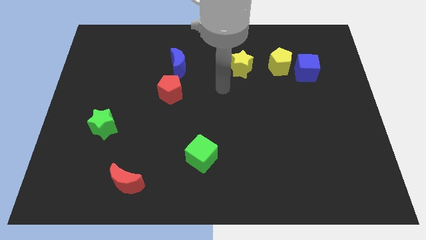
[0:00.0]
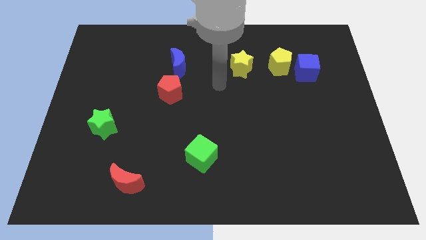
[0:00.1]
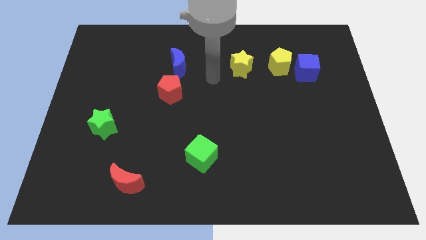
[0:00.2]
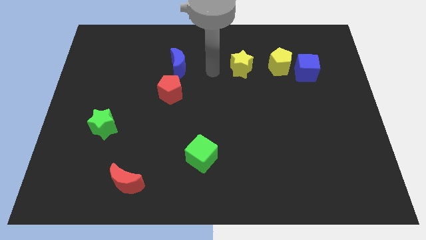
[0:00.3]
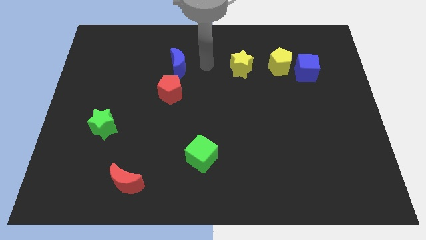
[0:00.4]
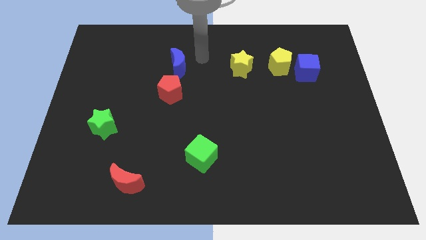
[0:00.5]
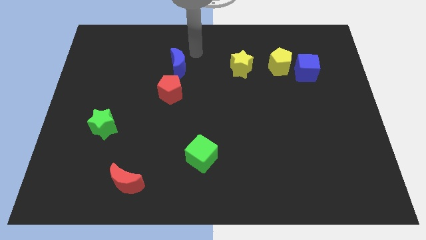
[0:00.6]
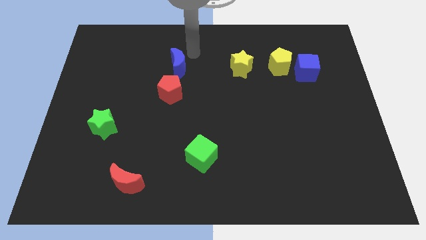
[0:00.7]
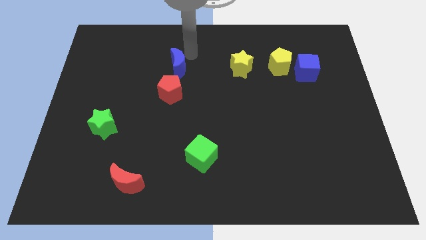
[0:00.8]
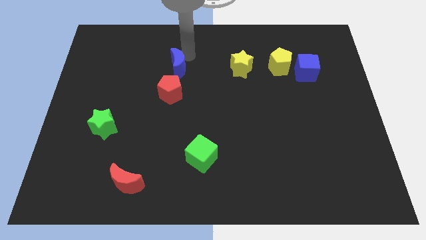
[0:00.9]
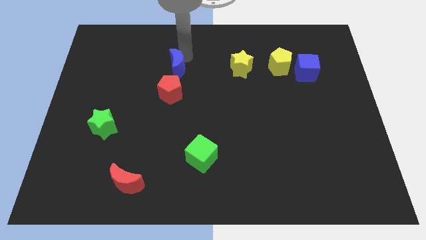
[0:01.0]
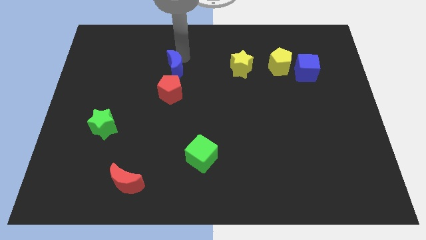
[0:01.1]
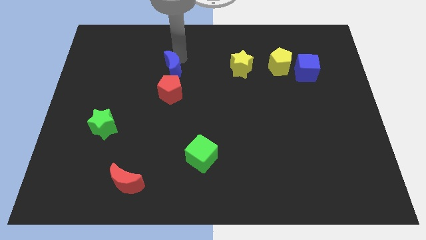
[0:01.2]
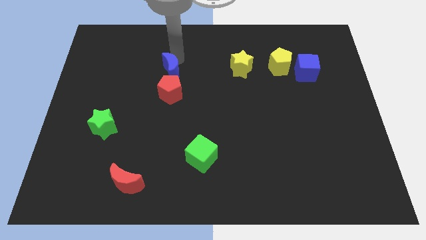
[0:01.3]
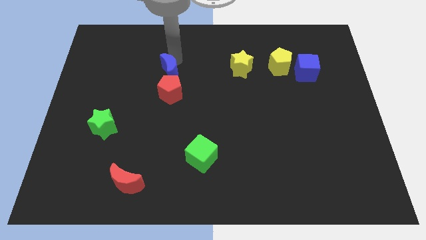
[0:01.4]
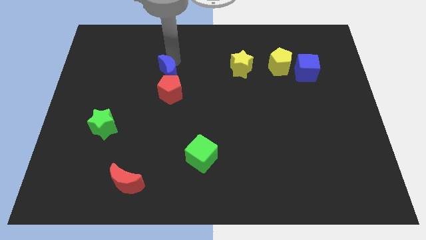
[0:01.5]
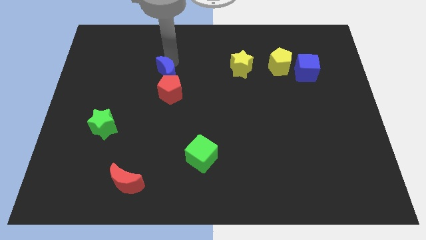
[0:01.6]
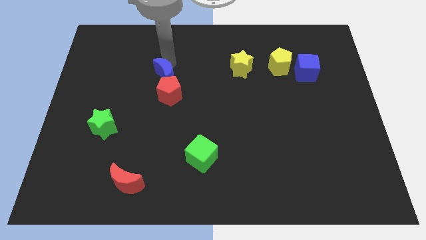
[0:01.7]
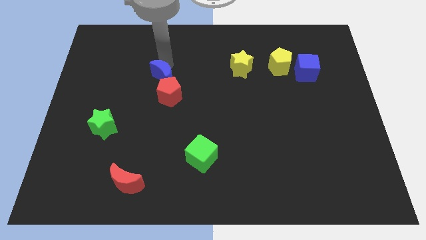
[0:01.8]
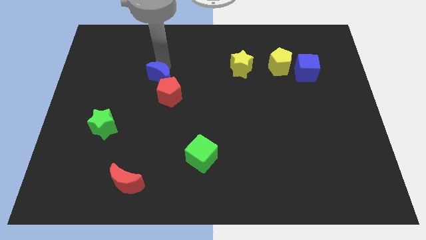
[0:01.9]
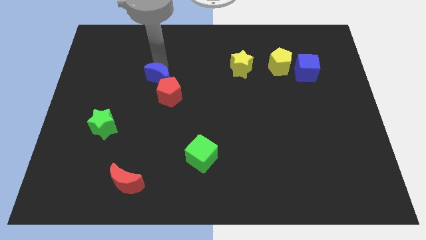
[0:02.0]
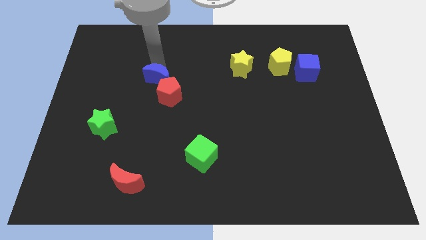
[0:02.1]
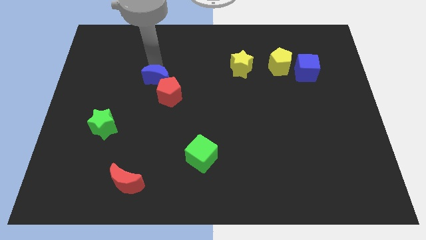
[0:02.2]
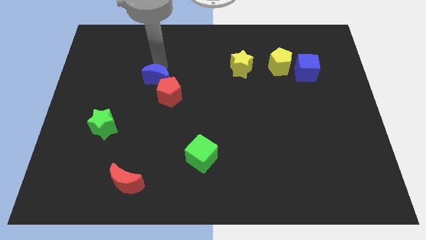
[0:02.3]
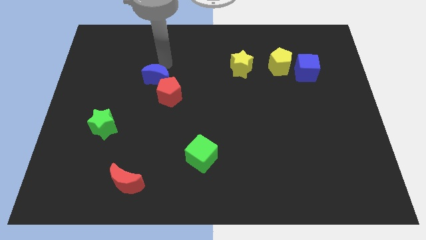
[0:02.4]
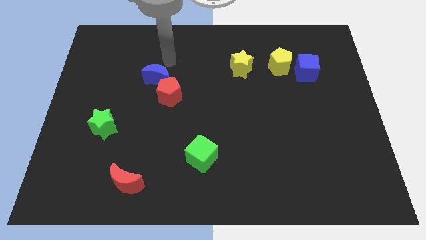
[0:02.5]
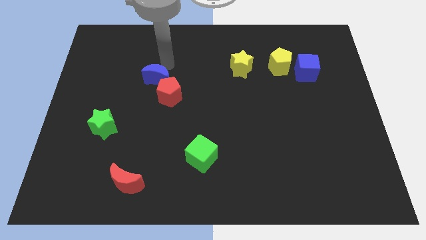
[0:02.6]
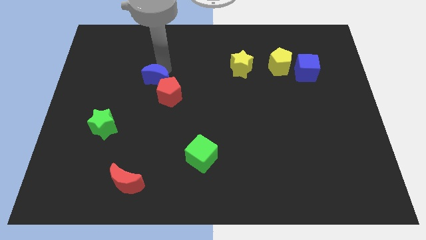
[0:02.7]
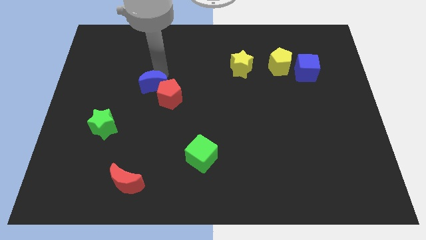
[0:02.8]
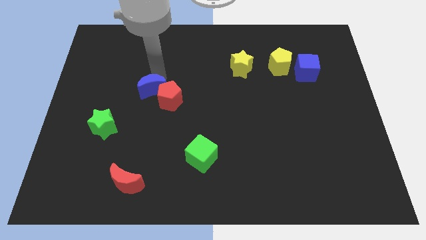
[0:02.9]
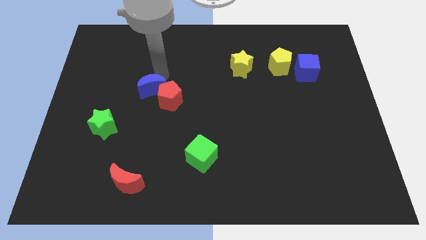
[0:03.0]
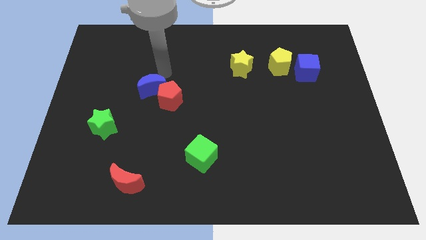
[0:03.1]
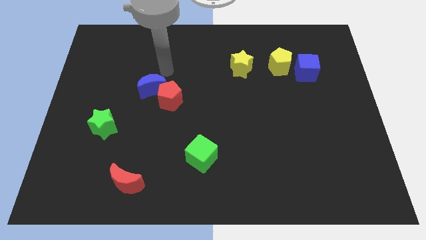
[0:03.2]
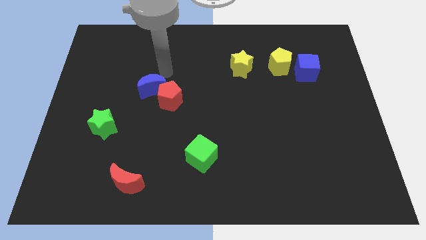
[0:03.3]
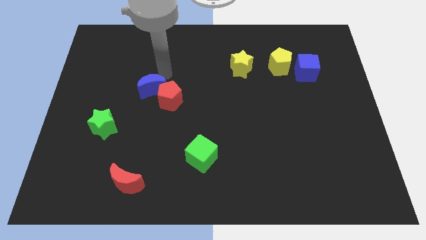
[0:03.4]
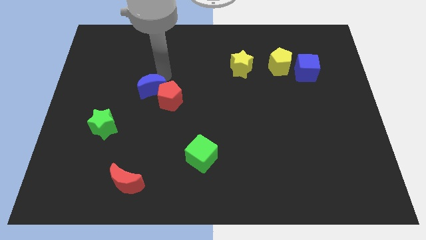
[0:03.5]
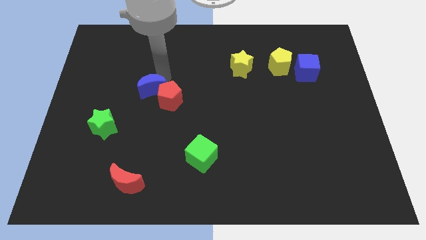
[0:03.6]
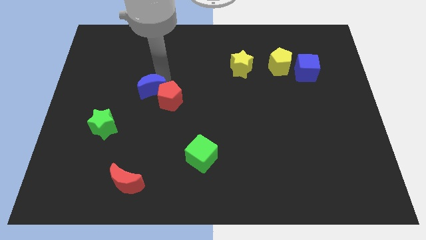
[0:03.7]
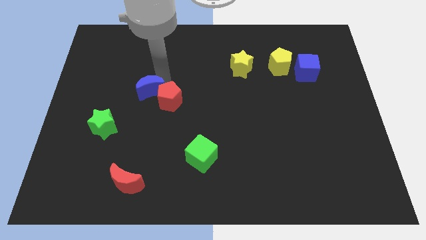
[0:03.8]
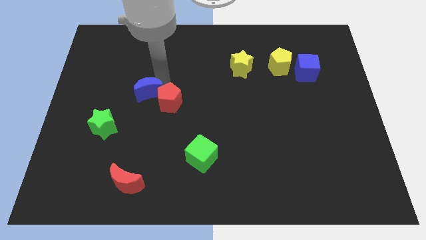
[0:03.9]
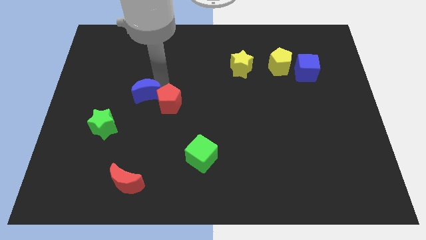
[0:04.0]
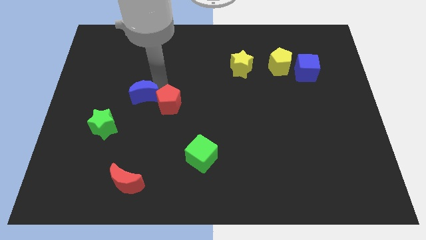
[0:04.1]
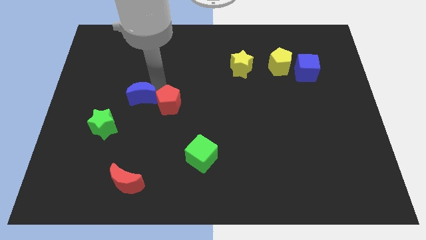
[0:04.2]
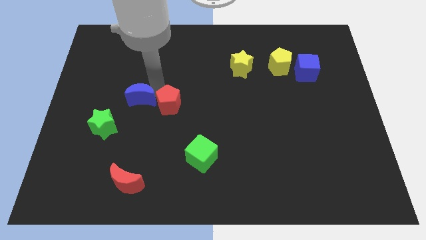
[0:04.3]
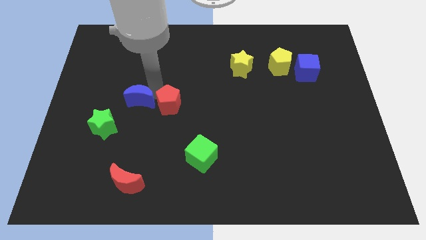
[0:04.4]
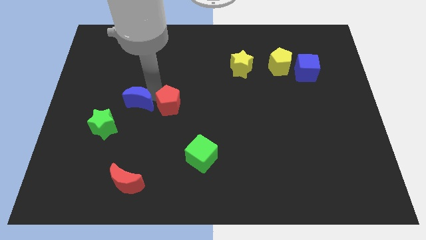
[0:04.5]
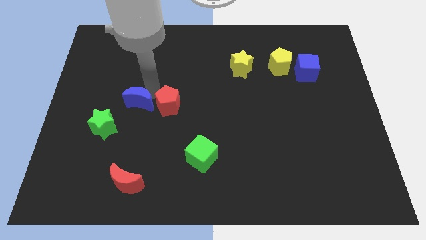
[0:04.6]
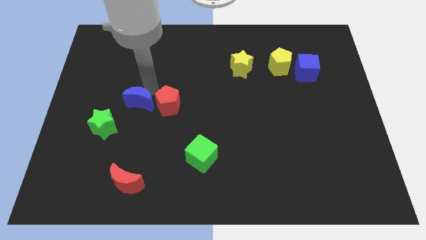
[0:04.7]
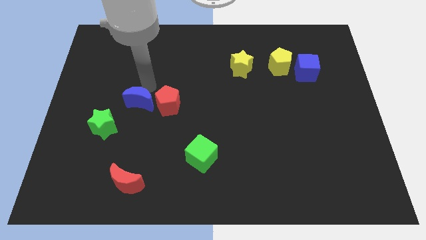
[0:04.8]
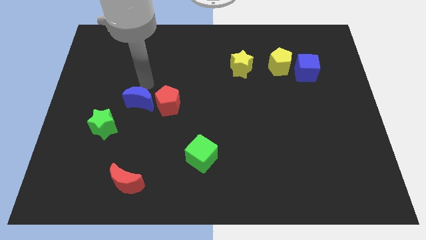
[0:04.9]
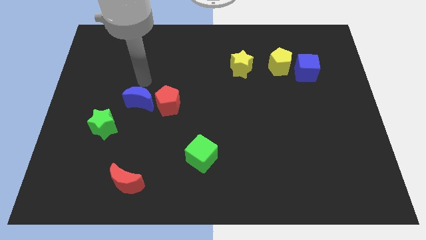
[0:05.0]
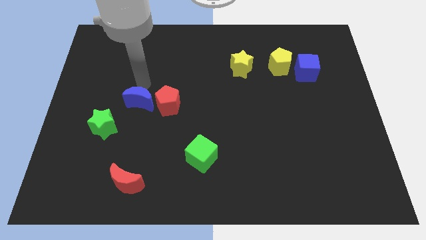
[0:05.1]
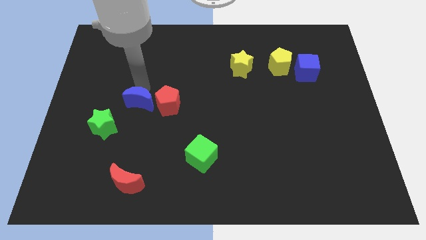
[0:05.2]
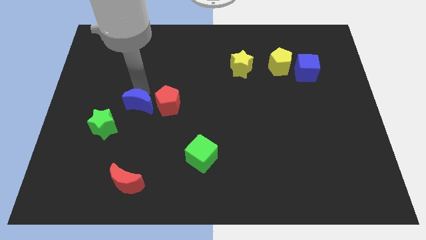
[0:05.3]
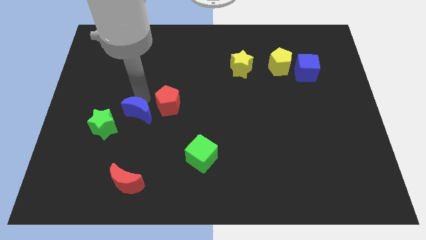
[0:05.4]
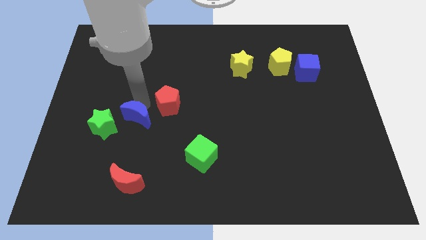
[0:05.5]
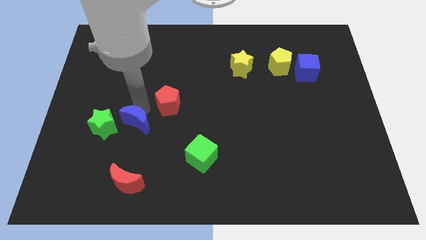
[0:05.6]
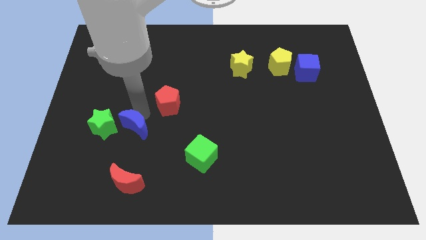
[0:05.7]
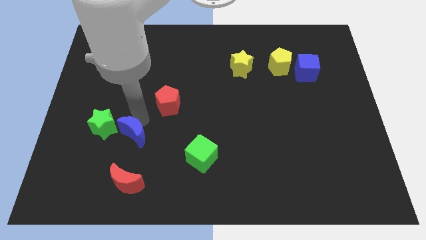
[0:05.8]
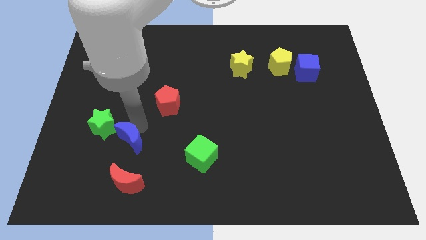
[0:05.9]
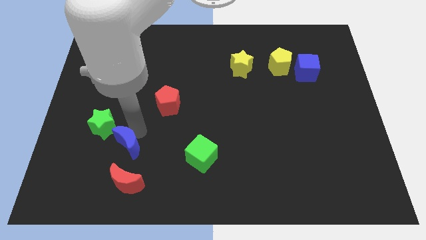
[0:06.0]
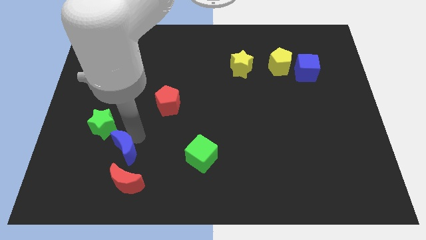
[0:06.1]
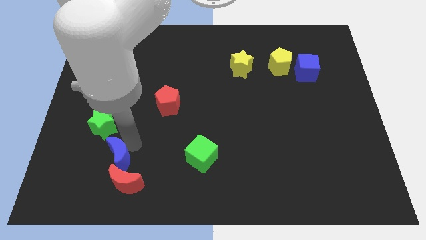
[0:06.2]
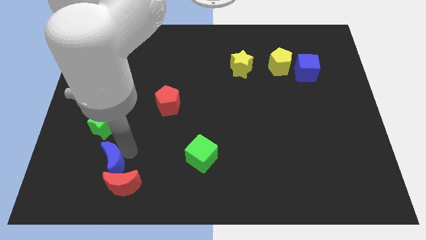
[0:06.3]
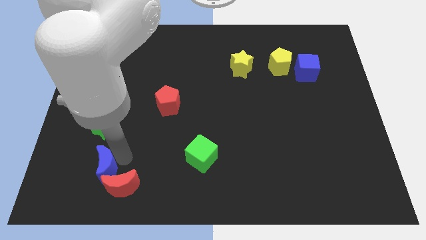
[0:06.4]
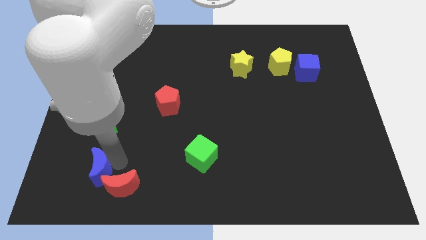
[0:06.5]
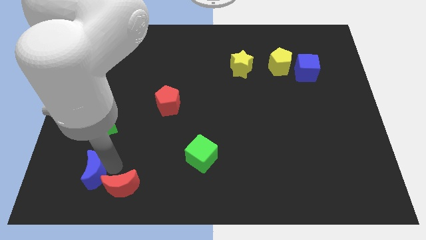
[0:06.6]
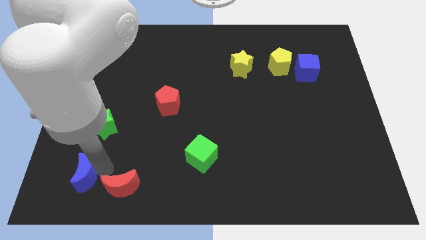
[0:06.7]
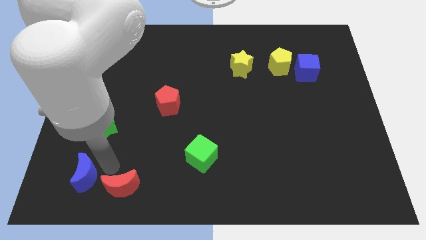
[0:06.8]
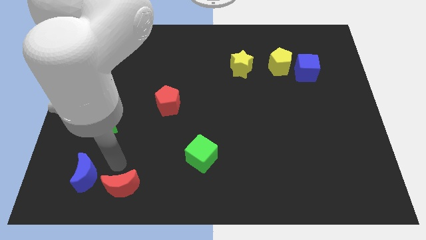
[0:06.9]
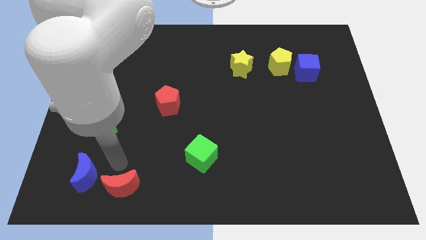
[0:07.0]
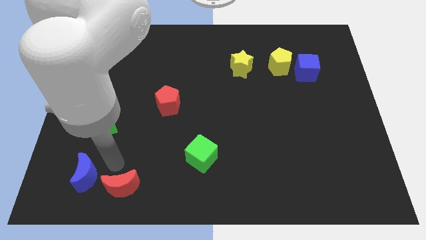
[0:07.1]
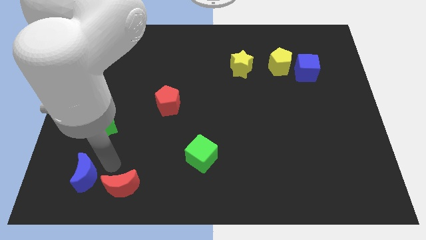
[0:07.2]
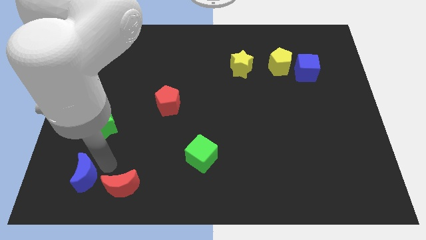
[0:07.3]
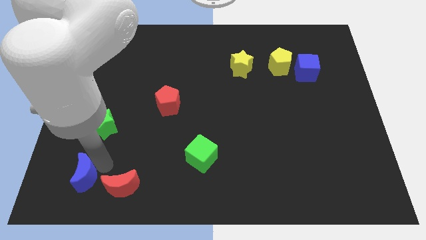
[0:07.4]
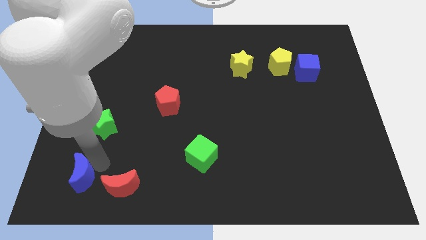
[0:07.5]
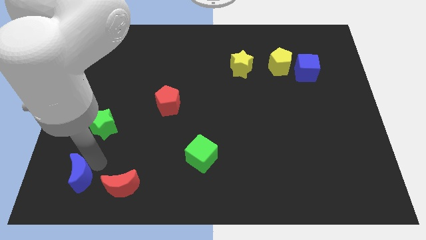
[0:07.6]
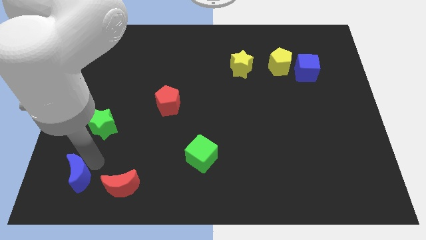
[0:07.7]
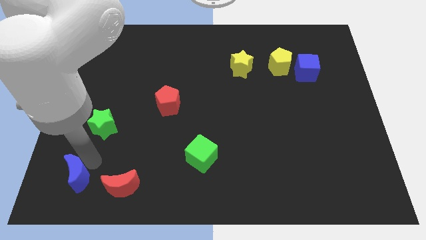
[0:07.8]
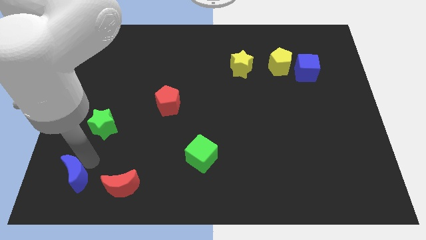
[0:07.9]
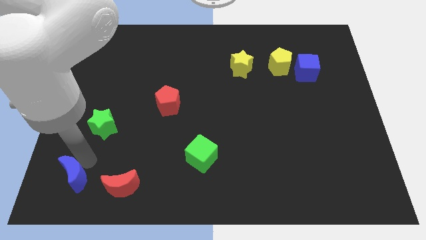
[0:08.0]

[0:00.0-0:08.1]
put the blue moon to the bottom left corner
